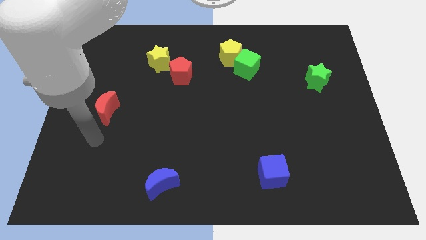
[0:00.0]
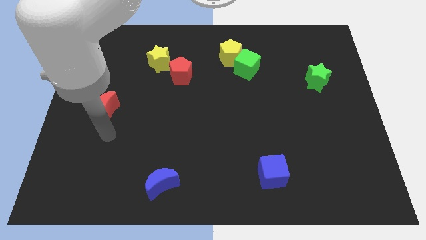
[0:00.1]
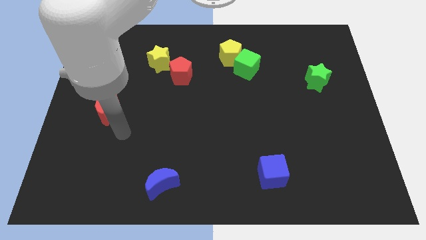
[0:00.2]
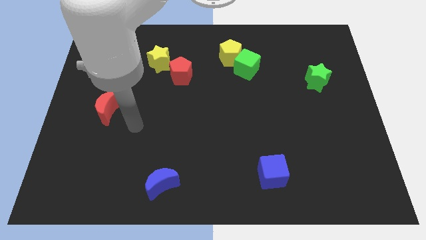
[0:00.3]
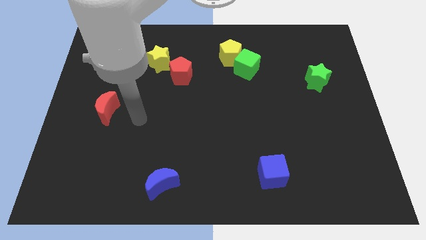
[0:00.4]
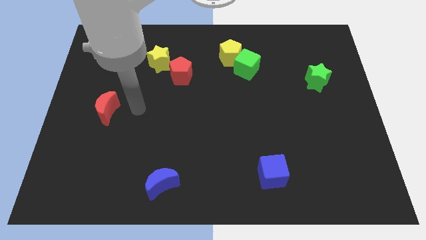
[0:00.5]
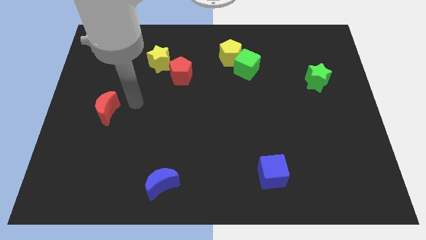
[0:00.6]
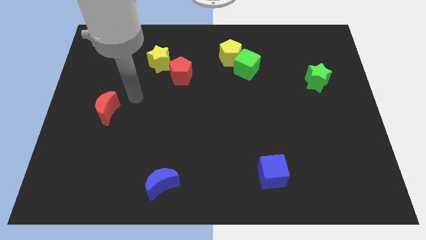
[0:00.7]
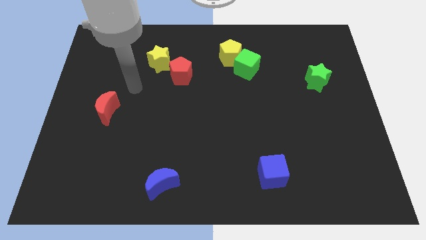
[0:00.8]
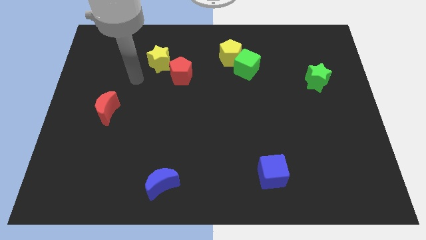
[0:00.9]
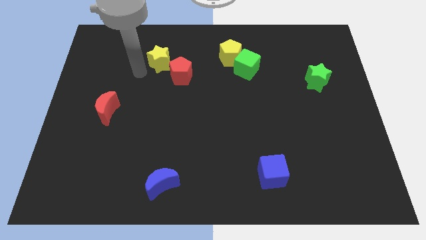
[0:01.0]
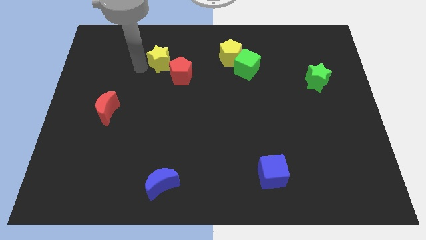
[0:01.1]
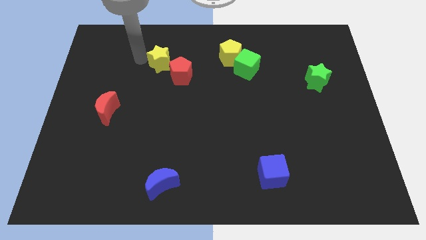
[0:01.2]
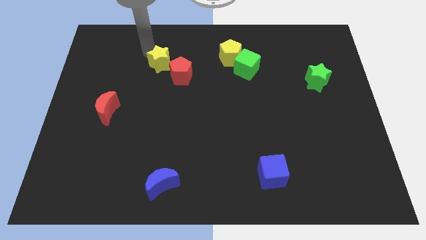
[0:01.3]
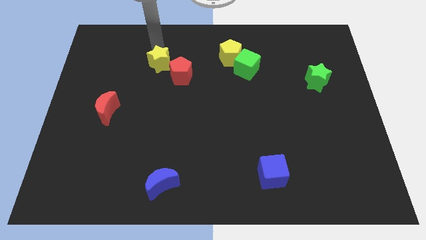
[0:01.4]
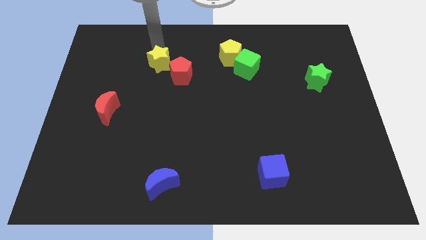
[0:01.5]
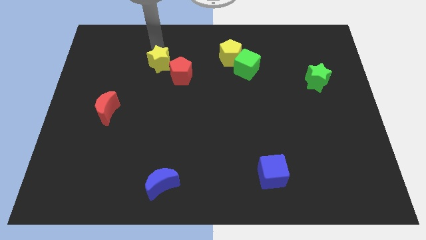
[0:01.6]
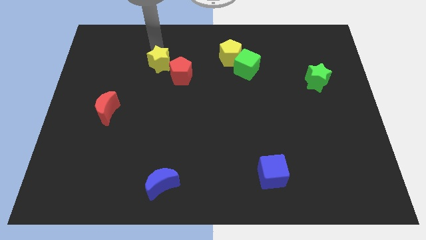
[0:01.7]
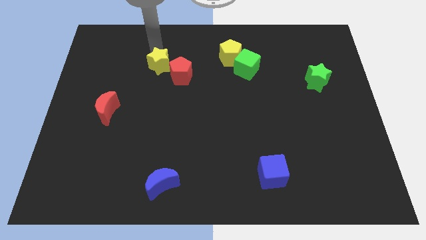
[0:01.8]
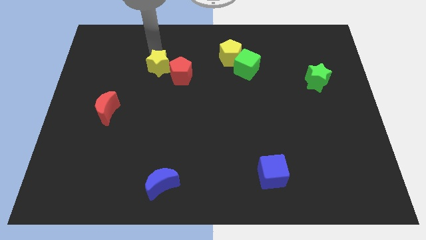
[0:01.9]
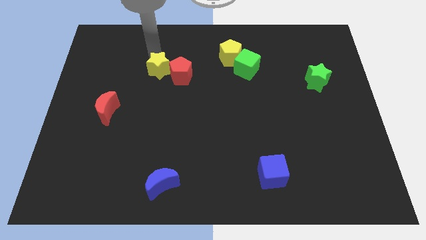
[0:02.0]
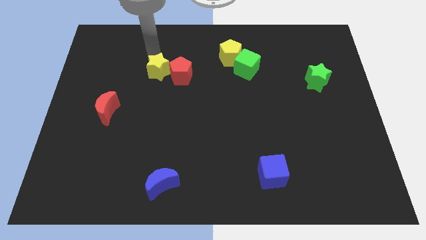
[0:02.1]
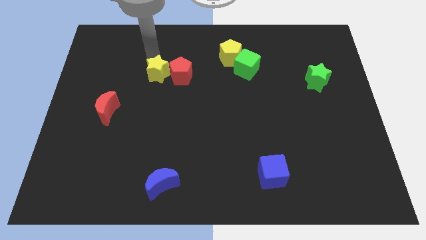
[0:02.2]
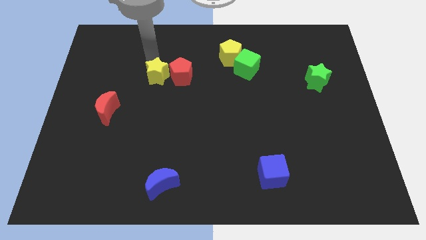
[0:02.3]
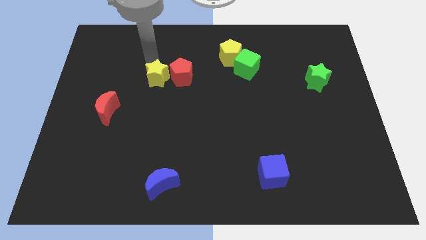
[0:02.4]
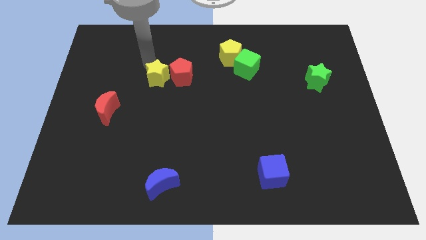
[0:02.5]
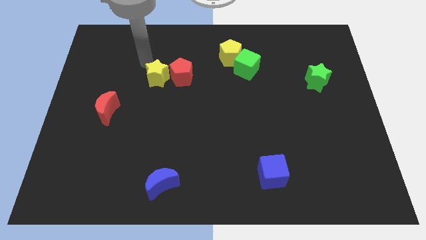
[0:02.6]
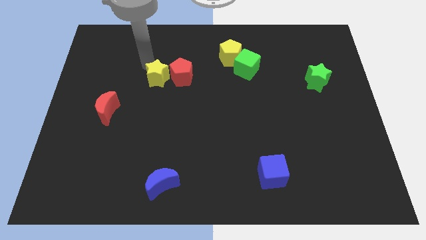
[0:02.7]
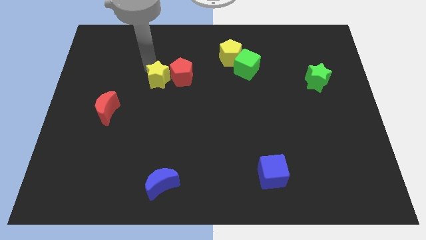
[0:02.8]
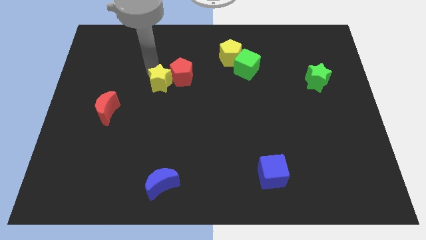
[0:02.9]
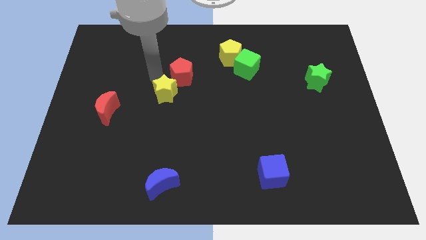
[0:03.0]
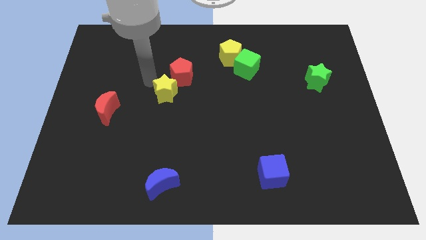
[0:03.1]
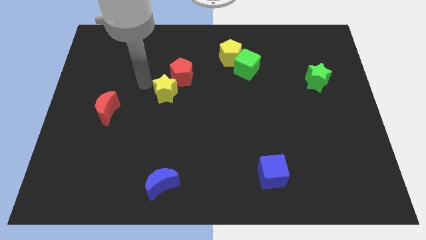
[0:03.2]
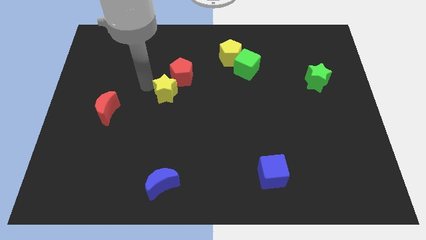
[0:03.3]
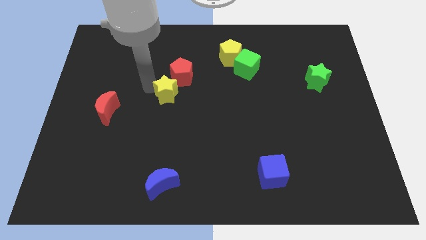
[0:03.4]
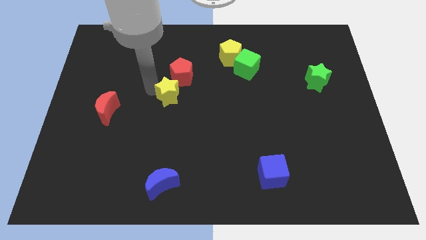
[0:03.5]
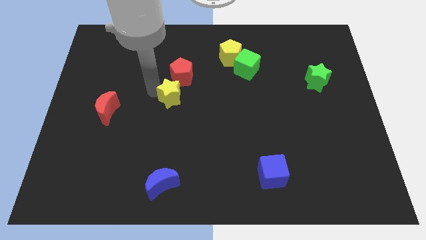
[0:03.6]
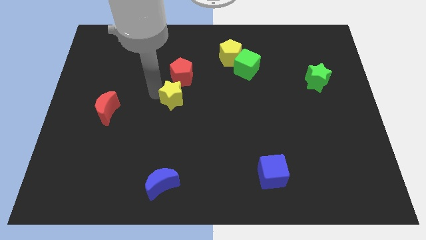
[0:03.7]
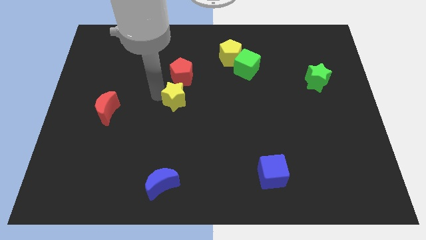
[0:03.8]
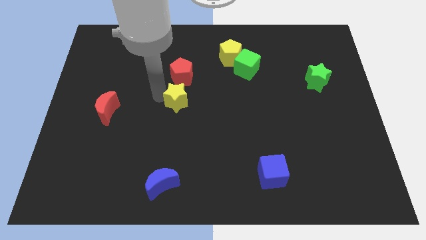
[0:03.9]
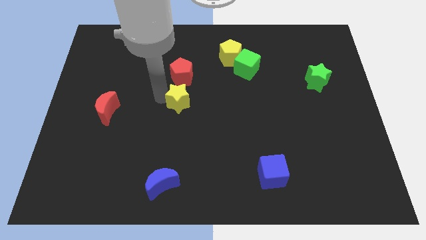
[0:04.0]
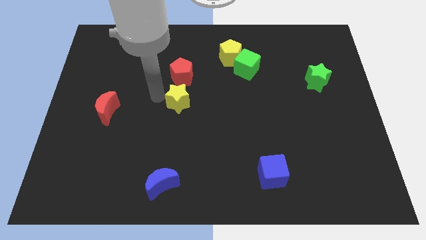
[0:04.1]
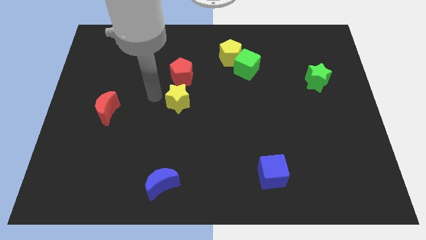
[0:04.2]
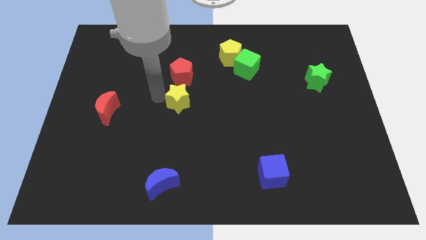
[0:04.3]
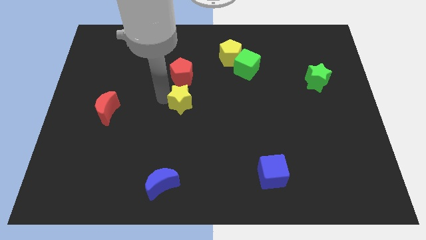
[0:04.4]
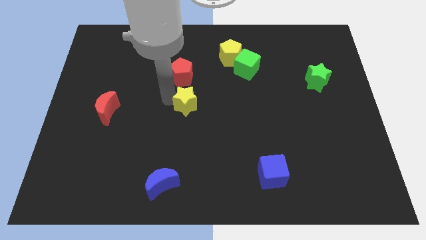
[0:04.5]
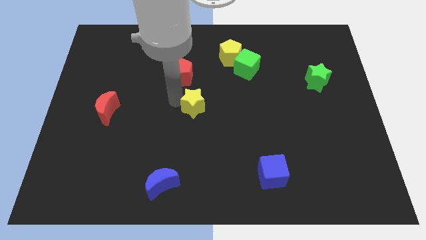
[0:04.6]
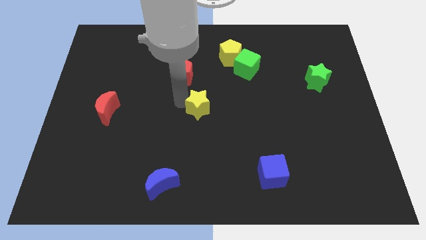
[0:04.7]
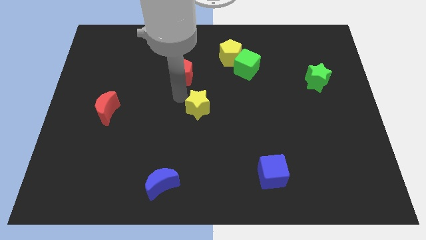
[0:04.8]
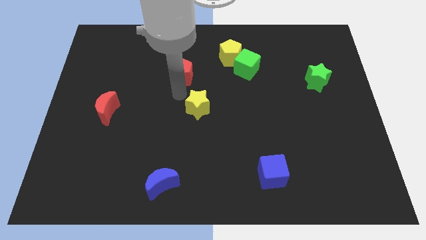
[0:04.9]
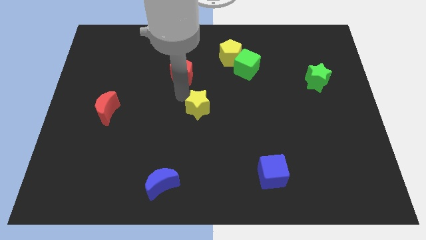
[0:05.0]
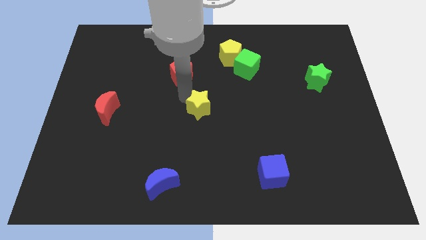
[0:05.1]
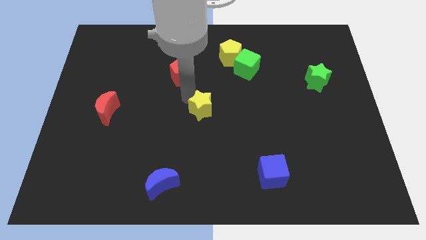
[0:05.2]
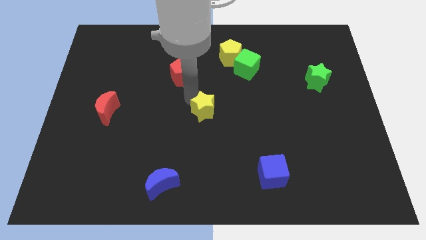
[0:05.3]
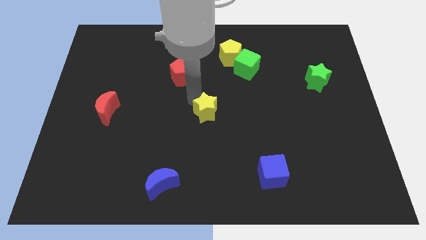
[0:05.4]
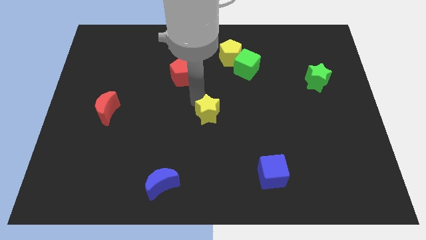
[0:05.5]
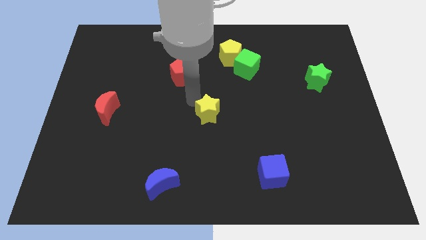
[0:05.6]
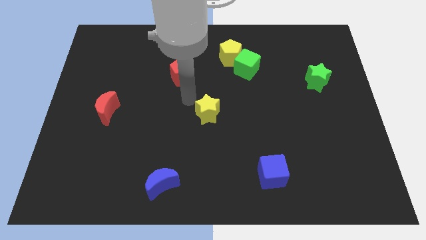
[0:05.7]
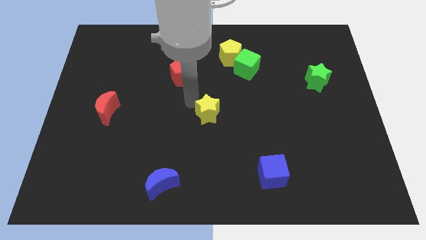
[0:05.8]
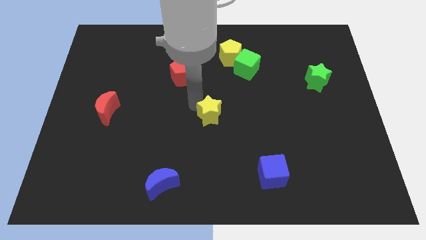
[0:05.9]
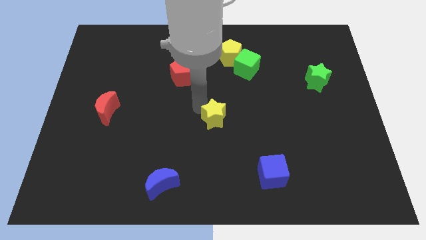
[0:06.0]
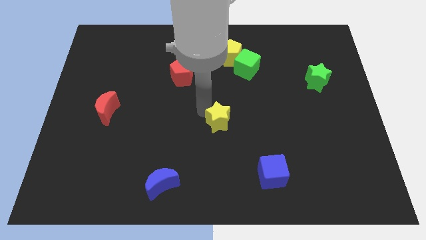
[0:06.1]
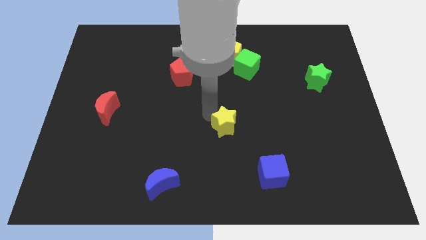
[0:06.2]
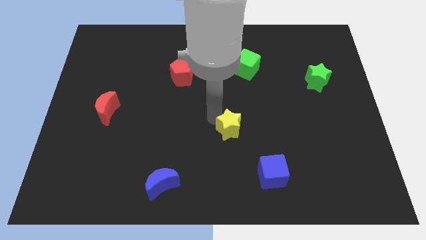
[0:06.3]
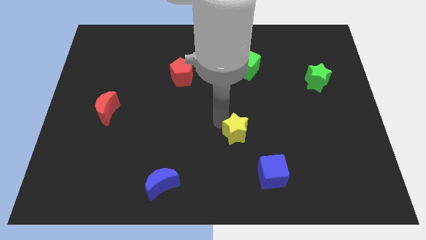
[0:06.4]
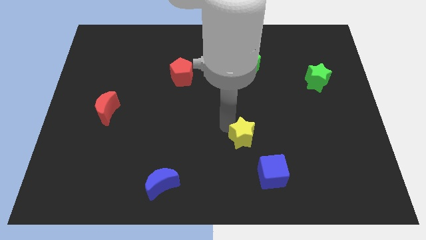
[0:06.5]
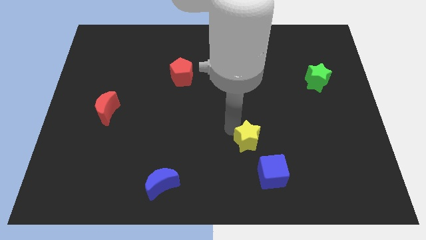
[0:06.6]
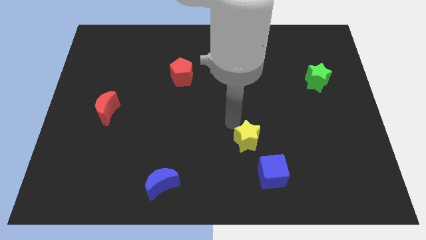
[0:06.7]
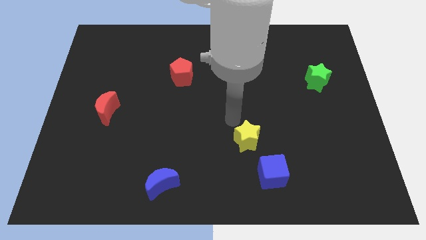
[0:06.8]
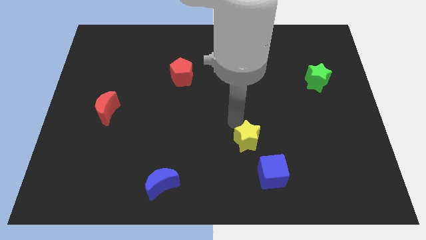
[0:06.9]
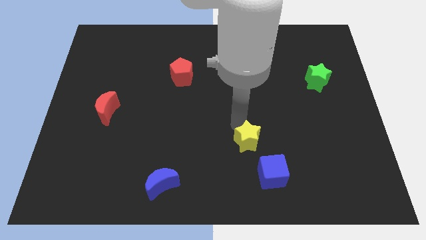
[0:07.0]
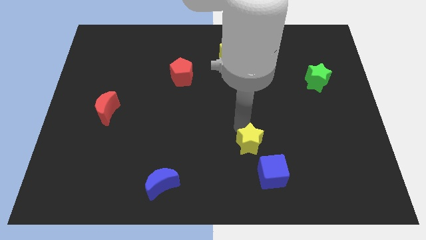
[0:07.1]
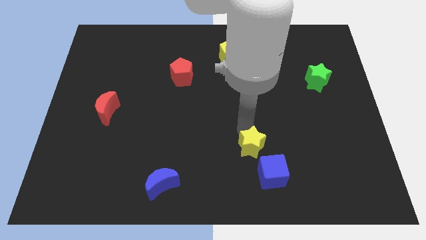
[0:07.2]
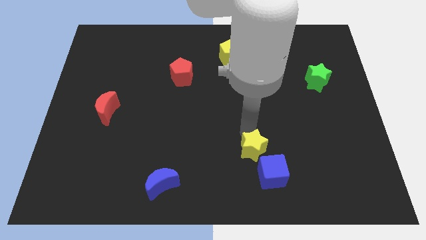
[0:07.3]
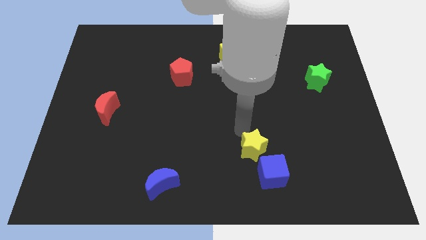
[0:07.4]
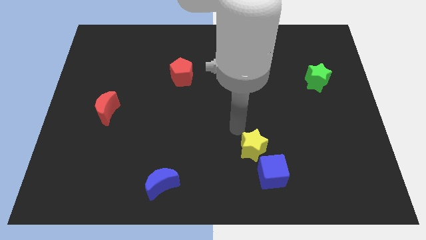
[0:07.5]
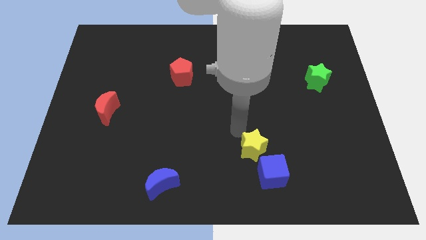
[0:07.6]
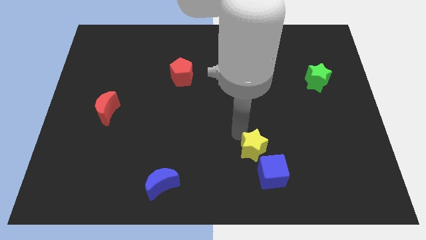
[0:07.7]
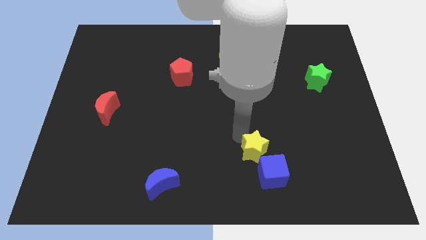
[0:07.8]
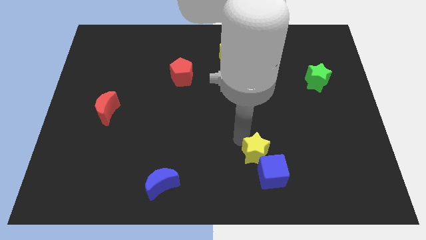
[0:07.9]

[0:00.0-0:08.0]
put the yellow star to the blue cube
